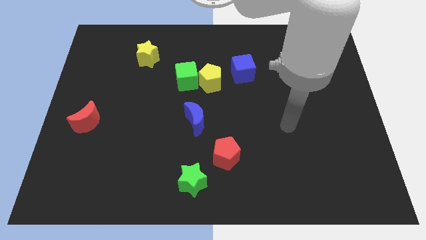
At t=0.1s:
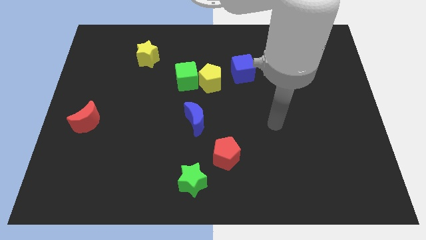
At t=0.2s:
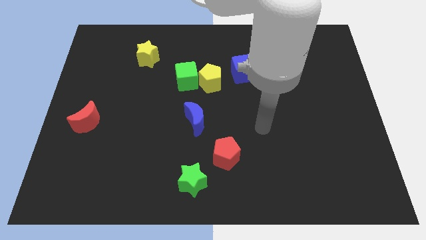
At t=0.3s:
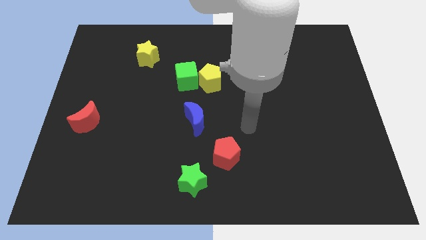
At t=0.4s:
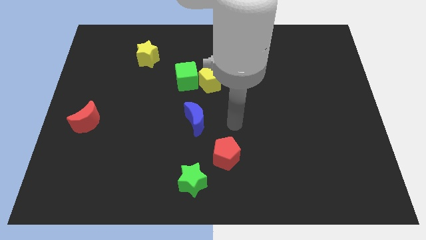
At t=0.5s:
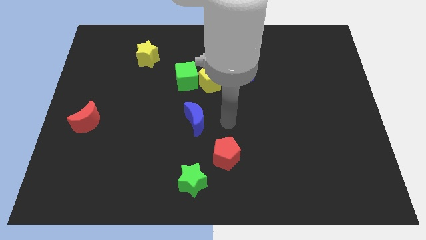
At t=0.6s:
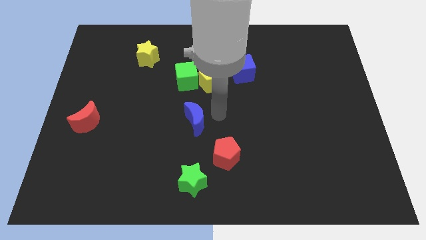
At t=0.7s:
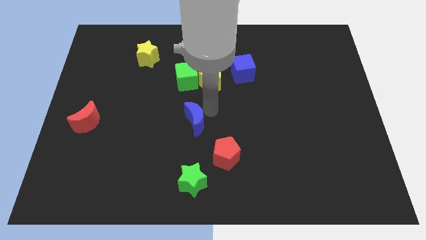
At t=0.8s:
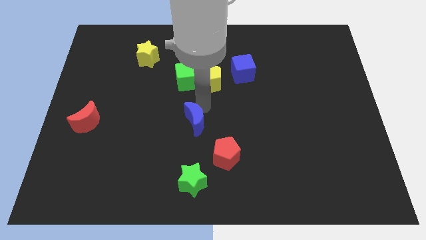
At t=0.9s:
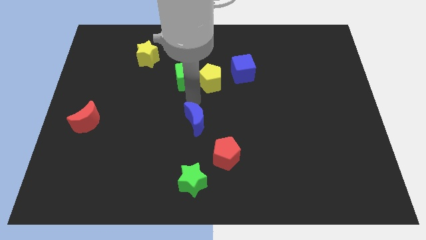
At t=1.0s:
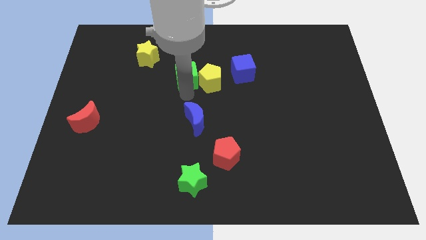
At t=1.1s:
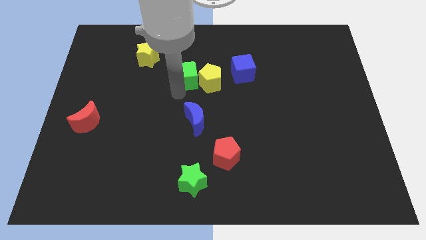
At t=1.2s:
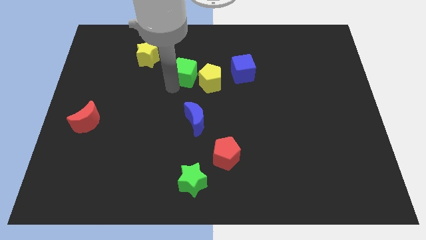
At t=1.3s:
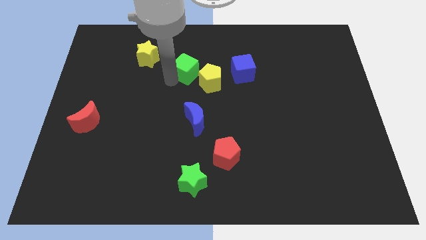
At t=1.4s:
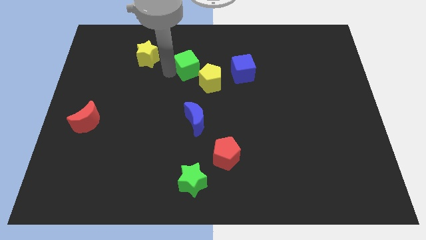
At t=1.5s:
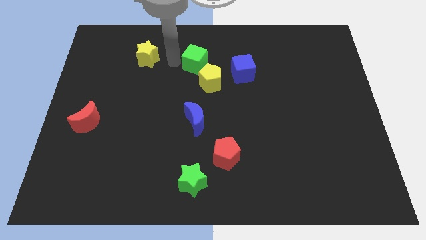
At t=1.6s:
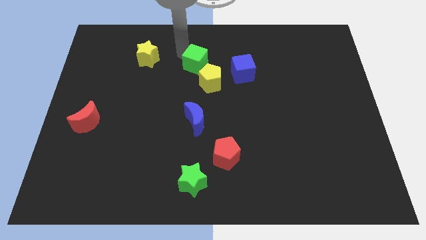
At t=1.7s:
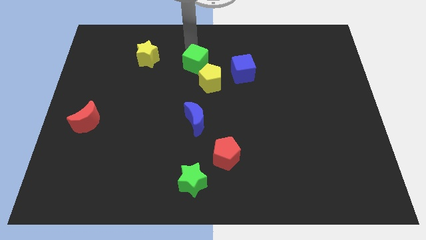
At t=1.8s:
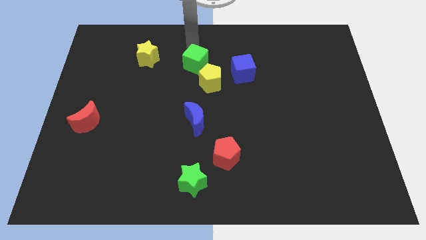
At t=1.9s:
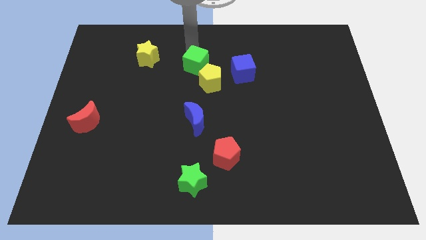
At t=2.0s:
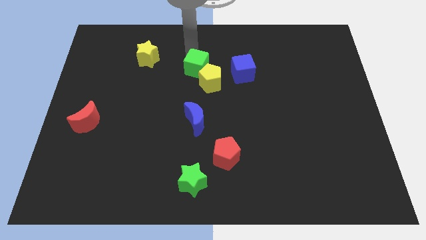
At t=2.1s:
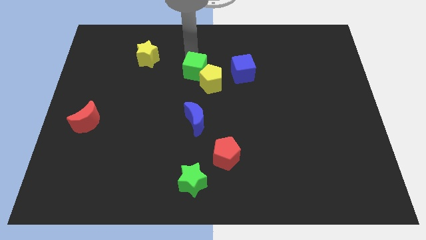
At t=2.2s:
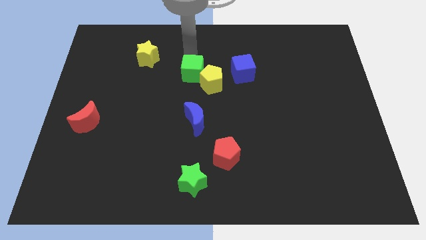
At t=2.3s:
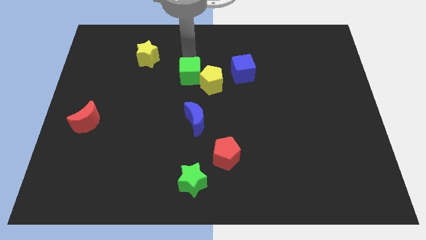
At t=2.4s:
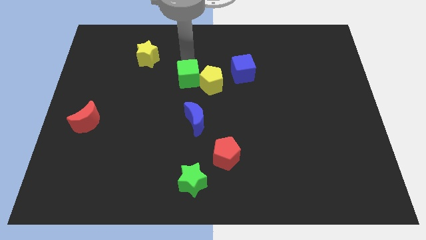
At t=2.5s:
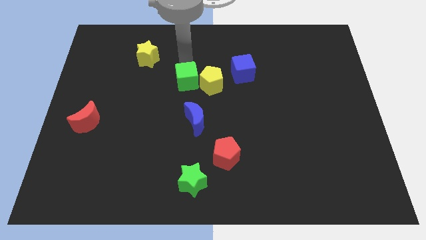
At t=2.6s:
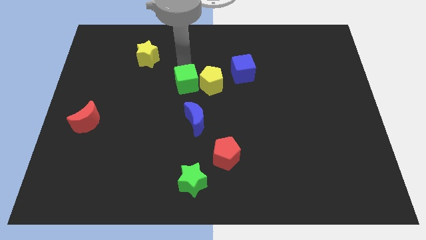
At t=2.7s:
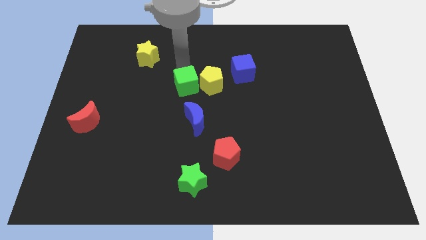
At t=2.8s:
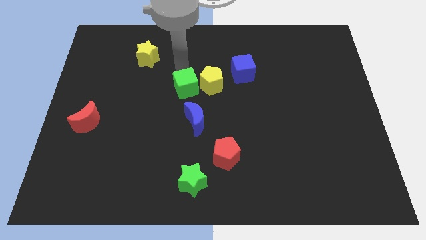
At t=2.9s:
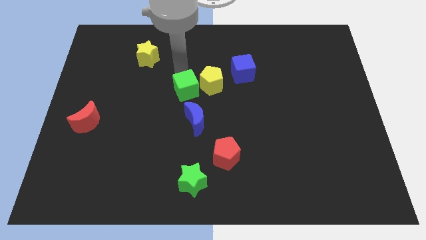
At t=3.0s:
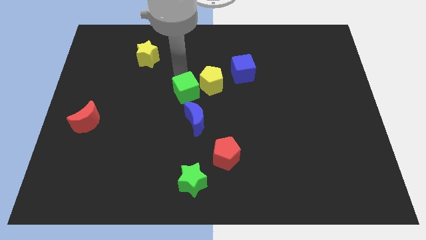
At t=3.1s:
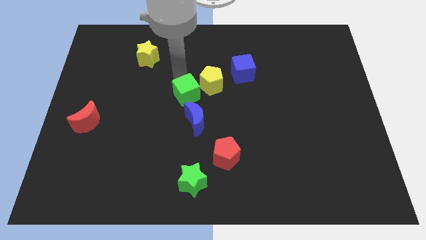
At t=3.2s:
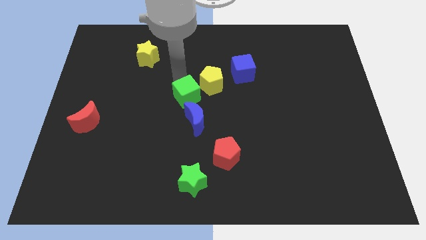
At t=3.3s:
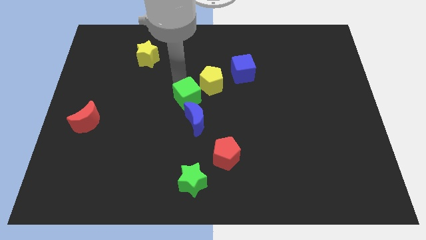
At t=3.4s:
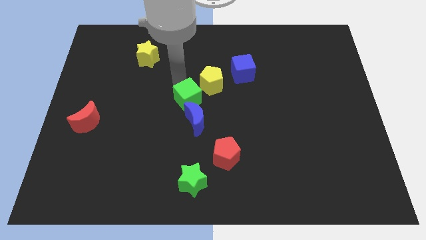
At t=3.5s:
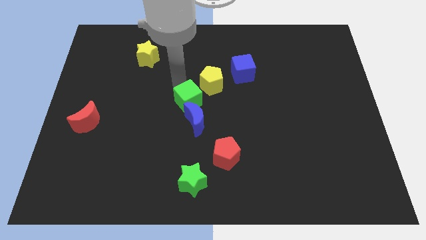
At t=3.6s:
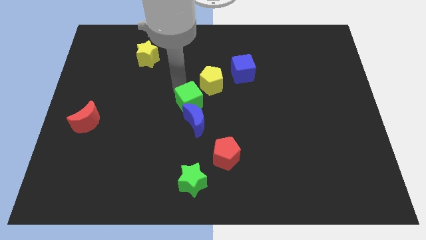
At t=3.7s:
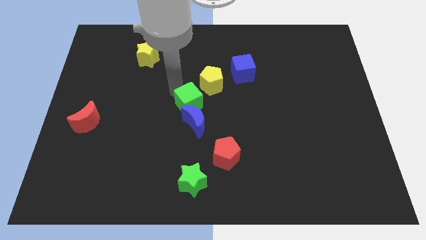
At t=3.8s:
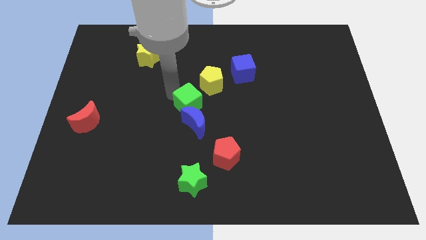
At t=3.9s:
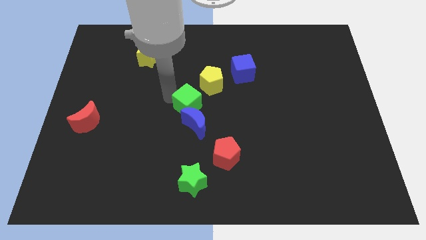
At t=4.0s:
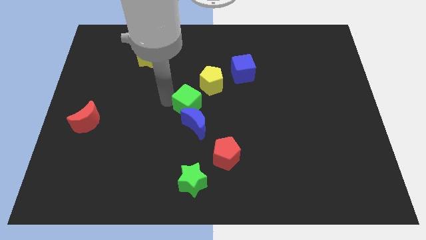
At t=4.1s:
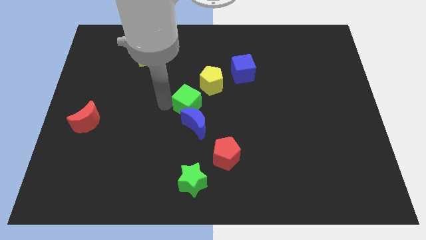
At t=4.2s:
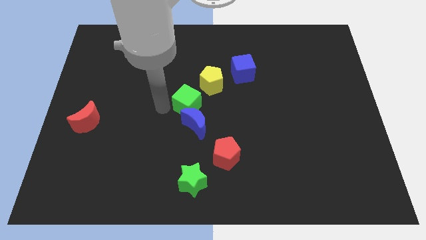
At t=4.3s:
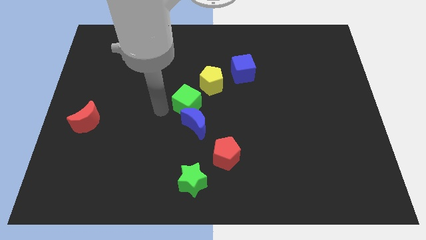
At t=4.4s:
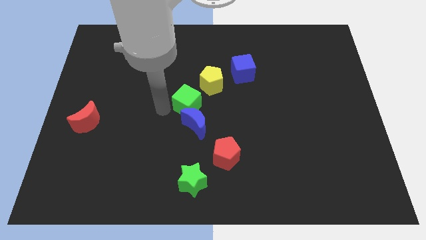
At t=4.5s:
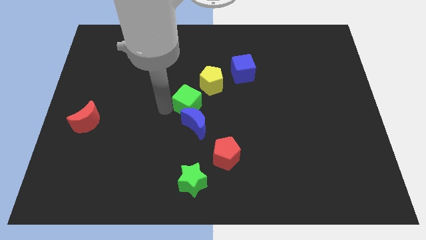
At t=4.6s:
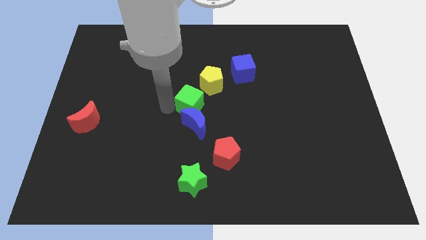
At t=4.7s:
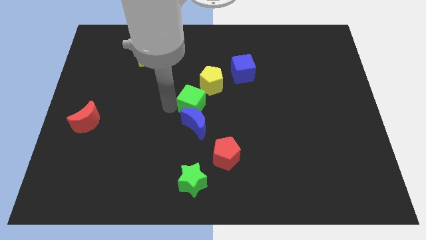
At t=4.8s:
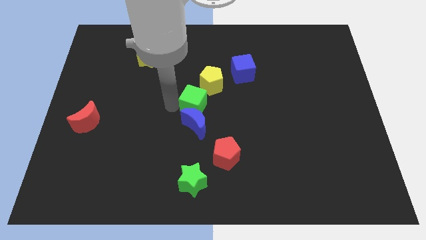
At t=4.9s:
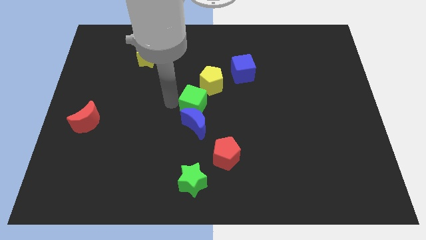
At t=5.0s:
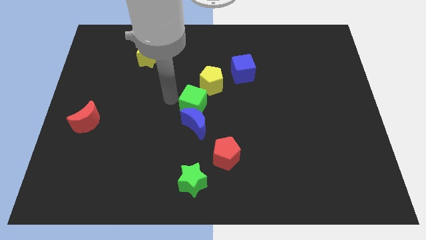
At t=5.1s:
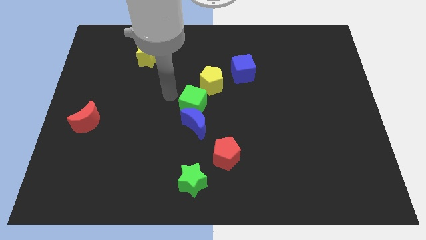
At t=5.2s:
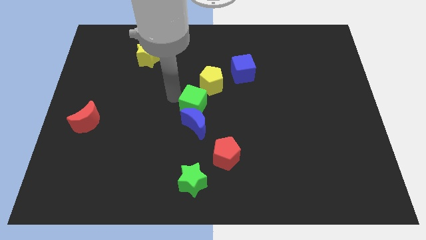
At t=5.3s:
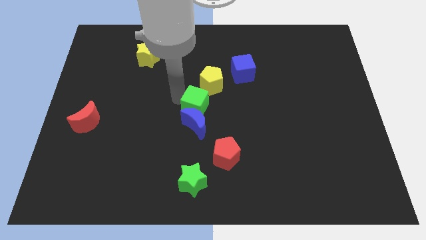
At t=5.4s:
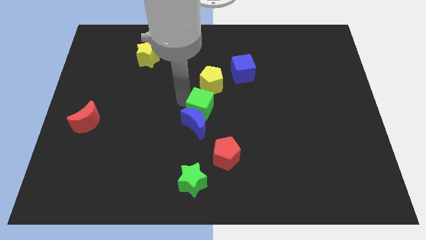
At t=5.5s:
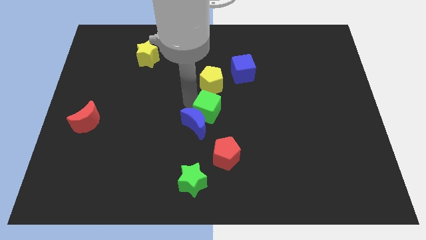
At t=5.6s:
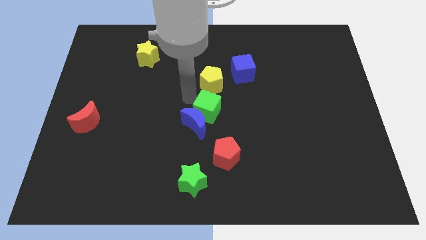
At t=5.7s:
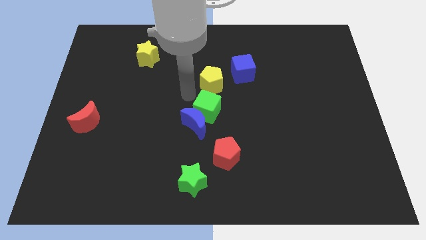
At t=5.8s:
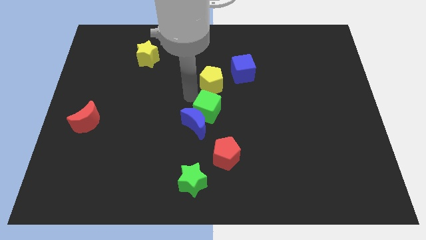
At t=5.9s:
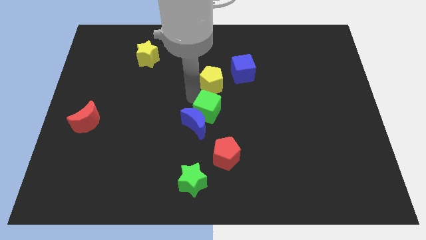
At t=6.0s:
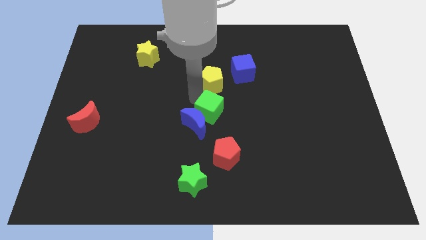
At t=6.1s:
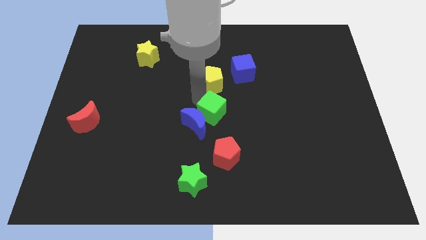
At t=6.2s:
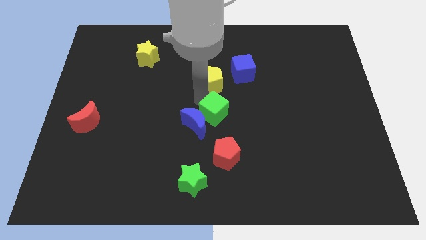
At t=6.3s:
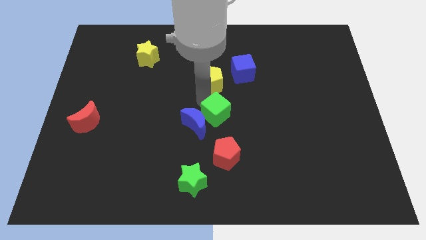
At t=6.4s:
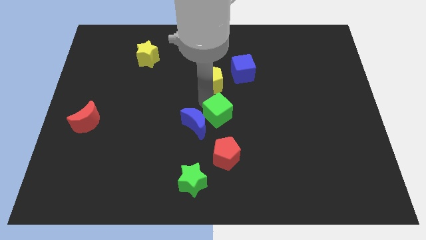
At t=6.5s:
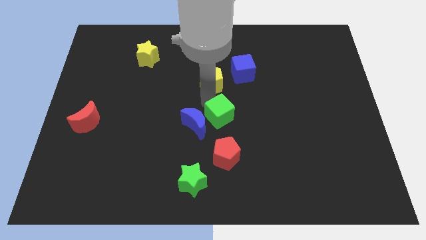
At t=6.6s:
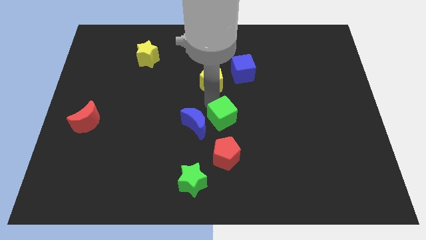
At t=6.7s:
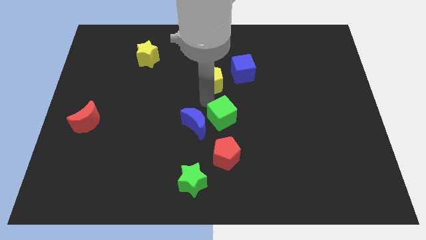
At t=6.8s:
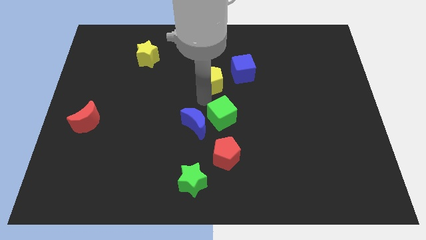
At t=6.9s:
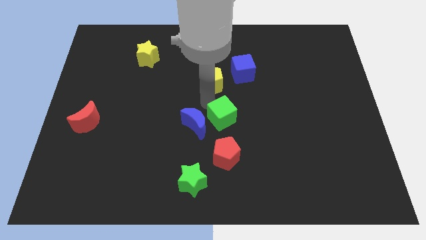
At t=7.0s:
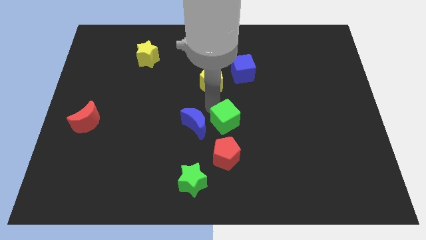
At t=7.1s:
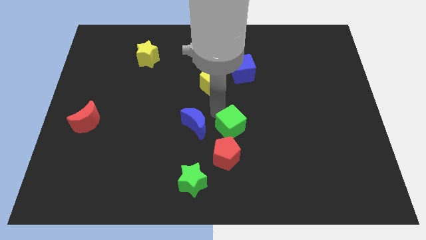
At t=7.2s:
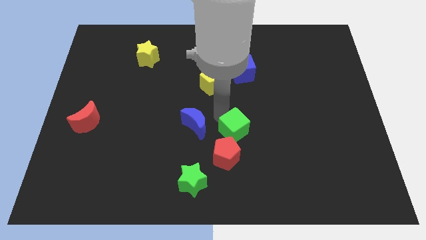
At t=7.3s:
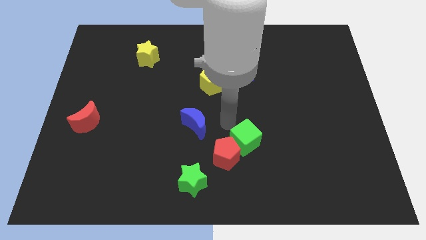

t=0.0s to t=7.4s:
push the green cube diagonally down and to the right

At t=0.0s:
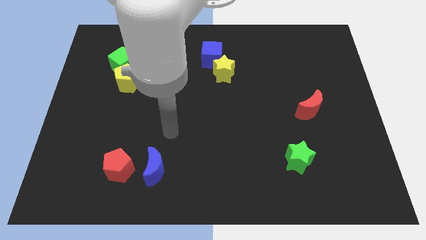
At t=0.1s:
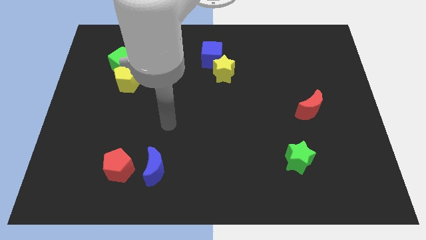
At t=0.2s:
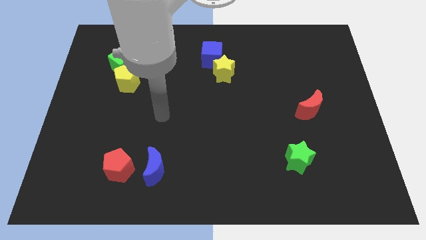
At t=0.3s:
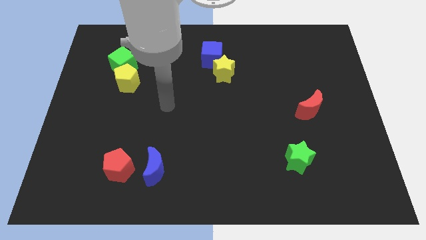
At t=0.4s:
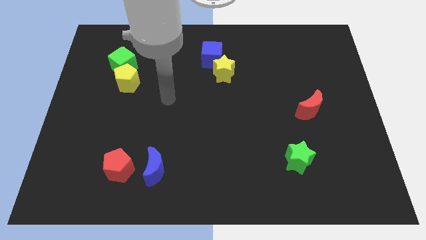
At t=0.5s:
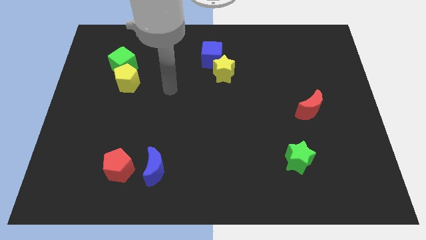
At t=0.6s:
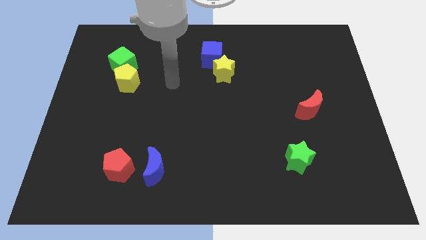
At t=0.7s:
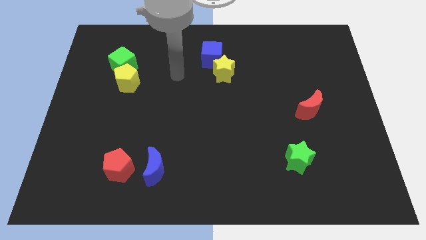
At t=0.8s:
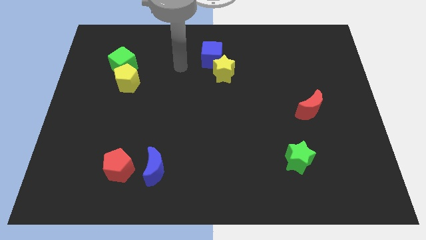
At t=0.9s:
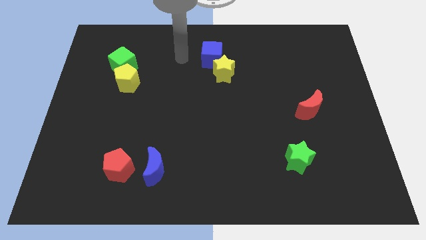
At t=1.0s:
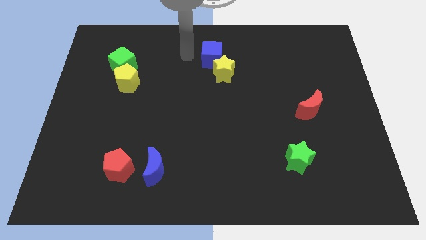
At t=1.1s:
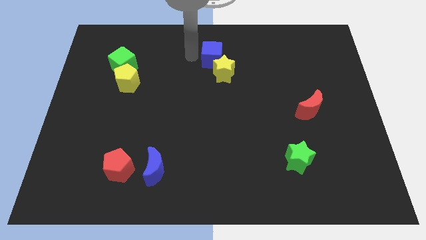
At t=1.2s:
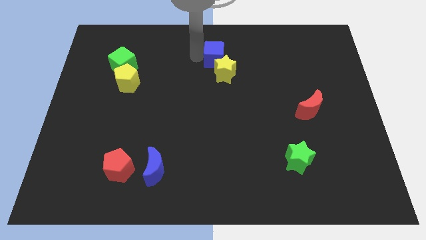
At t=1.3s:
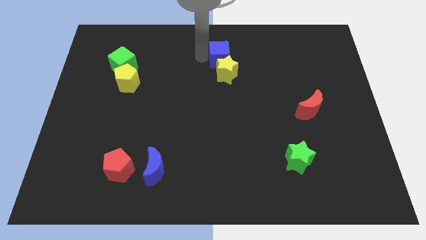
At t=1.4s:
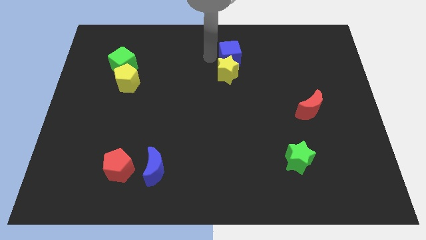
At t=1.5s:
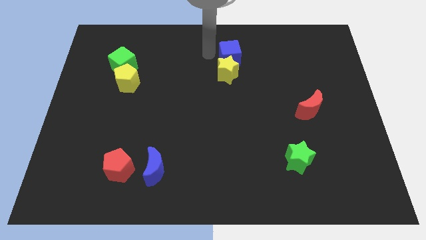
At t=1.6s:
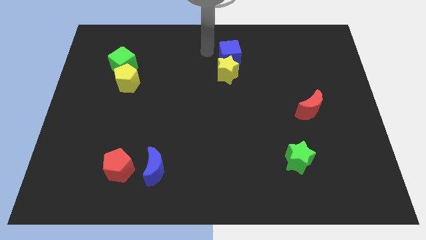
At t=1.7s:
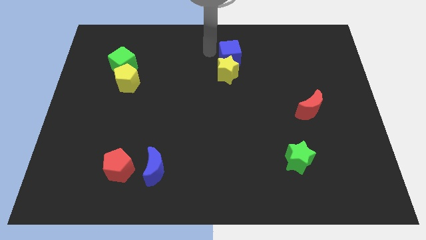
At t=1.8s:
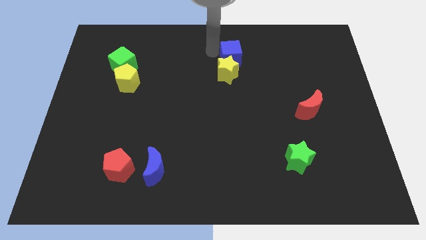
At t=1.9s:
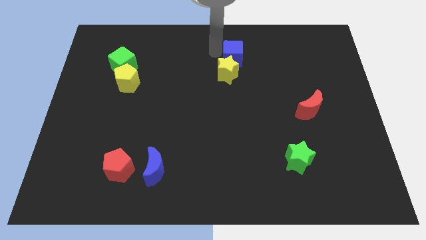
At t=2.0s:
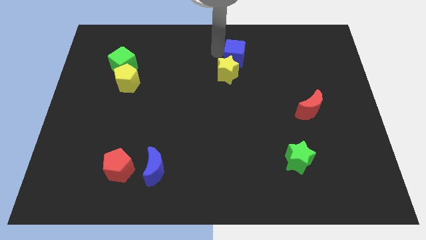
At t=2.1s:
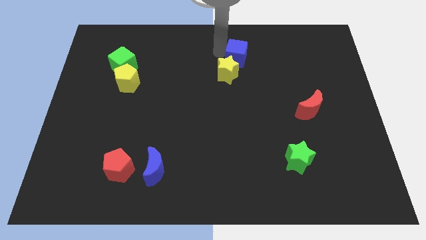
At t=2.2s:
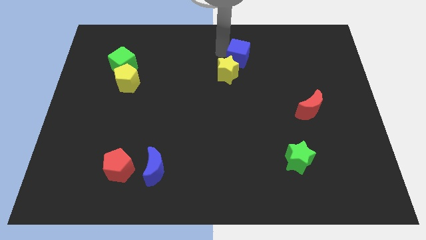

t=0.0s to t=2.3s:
move the blue cube right somewhat
